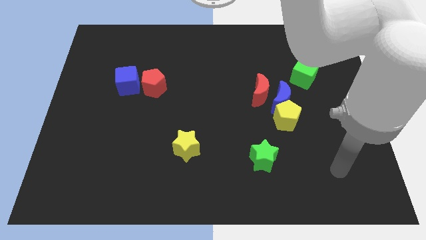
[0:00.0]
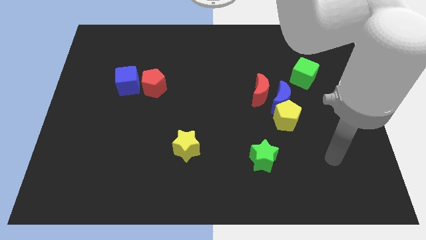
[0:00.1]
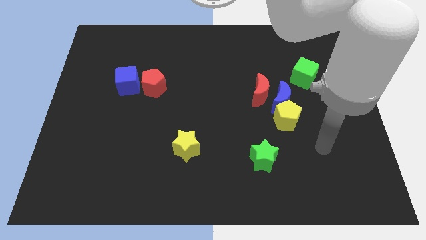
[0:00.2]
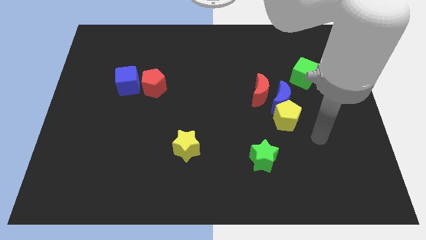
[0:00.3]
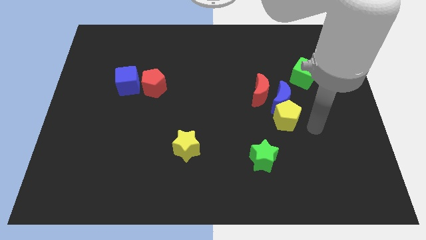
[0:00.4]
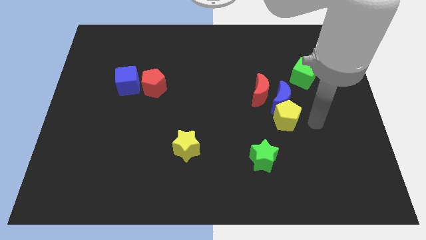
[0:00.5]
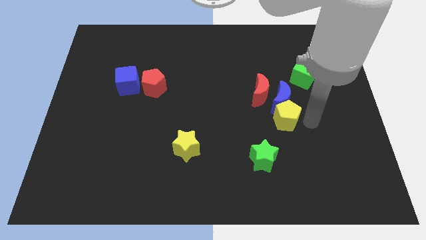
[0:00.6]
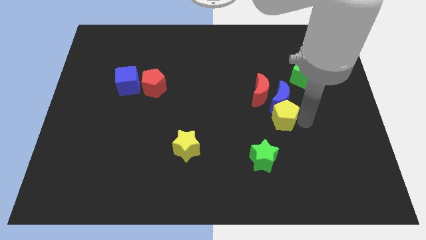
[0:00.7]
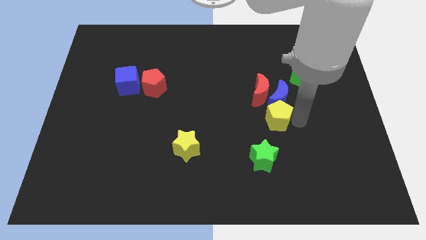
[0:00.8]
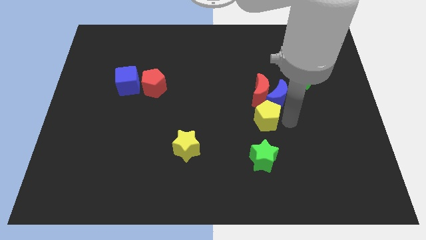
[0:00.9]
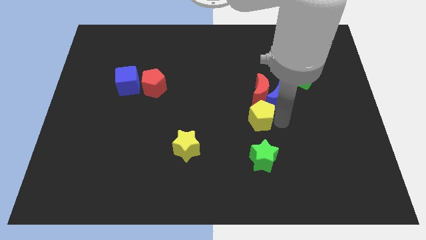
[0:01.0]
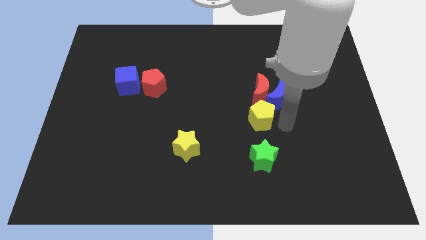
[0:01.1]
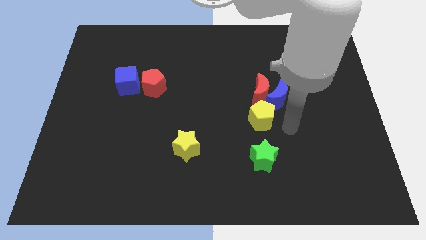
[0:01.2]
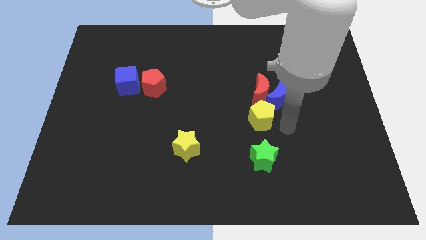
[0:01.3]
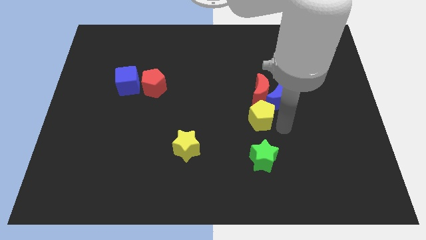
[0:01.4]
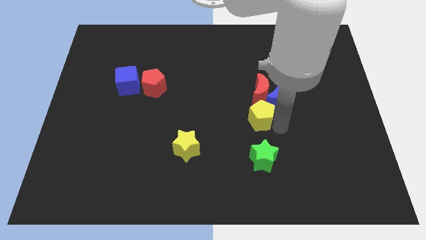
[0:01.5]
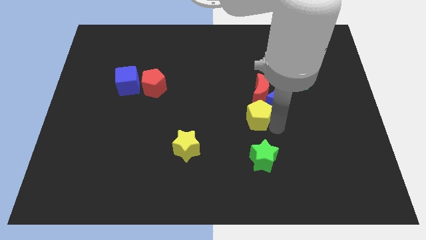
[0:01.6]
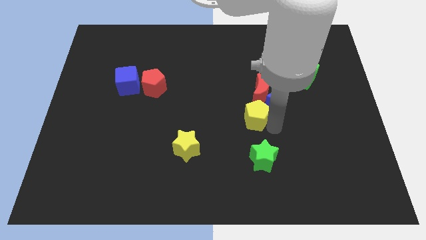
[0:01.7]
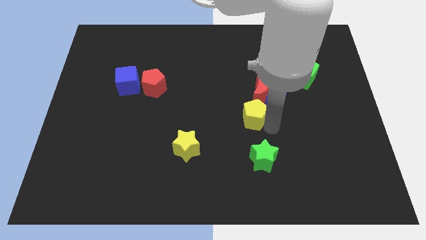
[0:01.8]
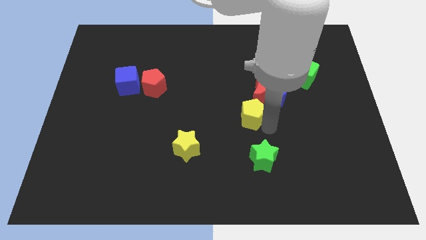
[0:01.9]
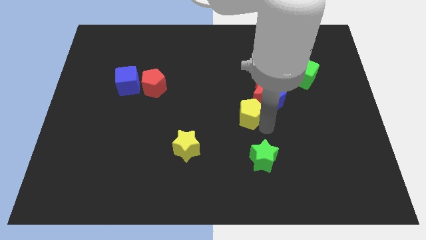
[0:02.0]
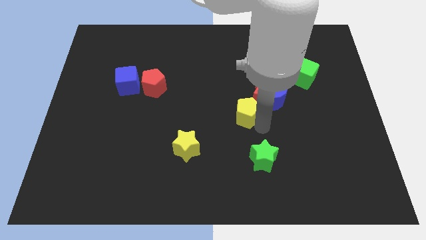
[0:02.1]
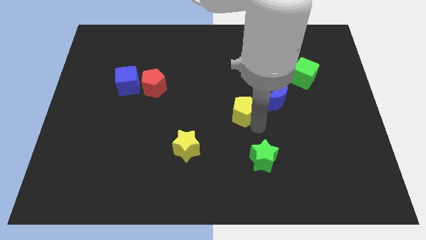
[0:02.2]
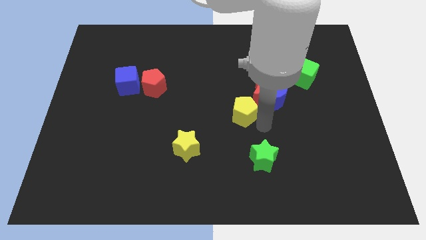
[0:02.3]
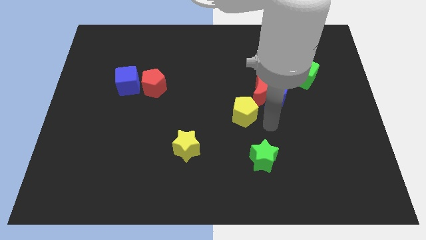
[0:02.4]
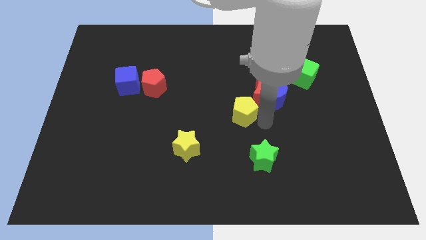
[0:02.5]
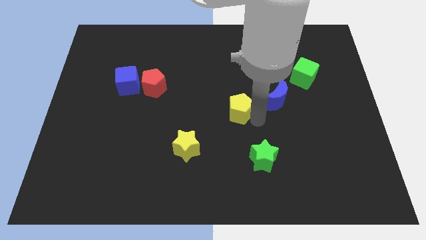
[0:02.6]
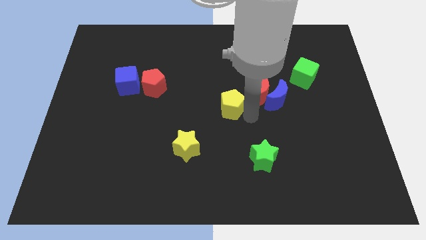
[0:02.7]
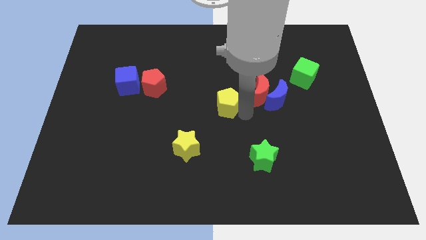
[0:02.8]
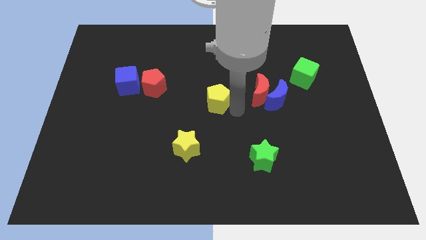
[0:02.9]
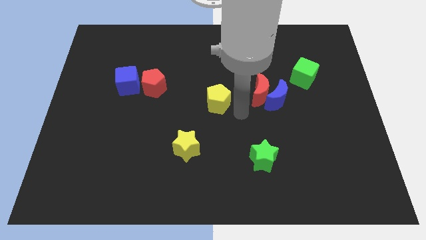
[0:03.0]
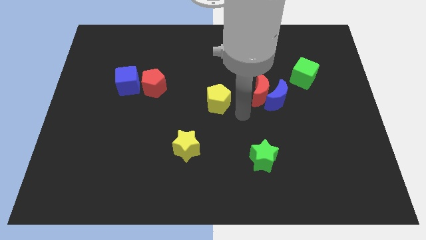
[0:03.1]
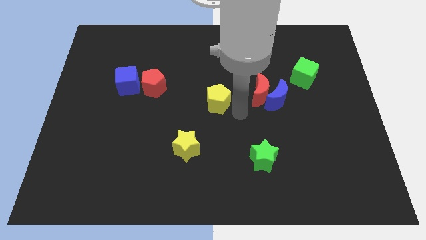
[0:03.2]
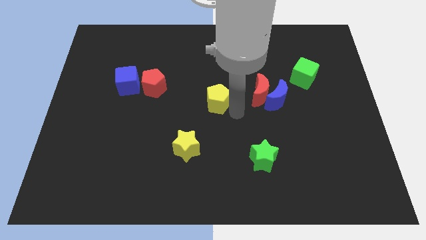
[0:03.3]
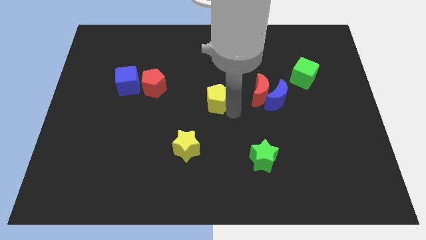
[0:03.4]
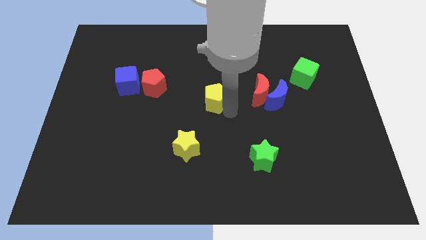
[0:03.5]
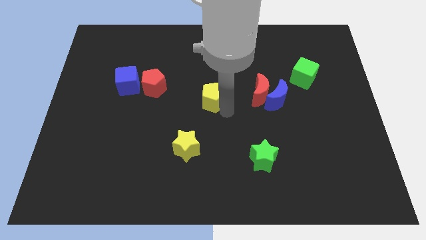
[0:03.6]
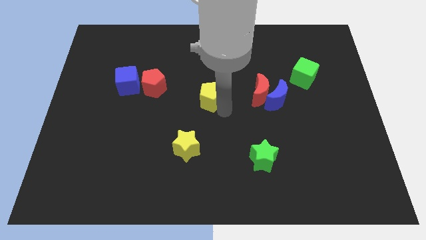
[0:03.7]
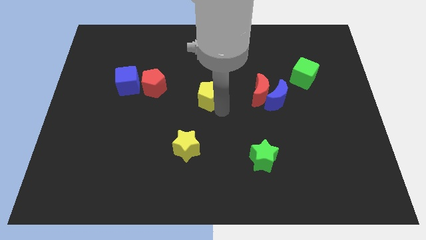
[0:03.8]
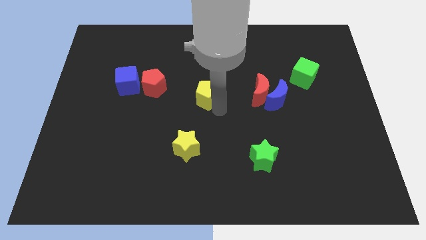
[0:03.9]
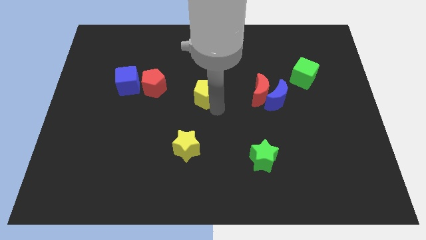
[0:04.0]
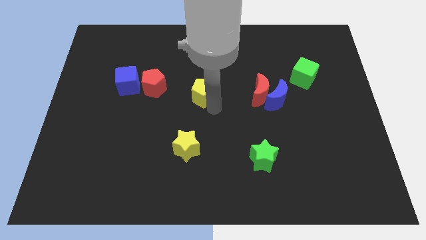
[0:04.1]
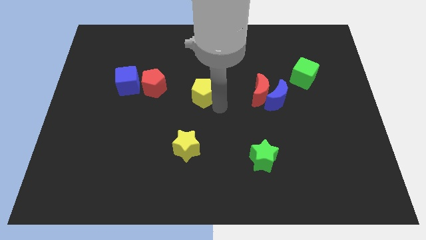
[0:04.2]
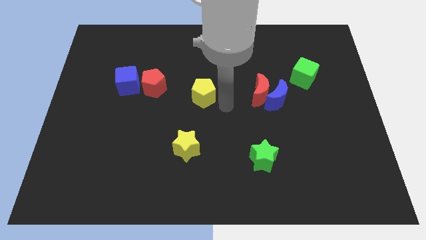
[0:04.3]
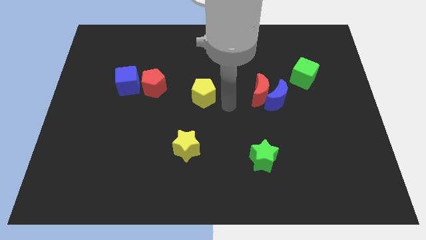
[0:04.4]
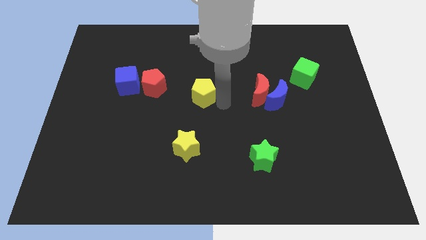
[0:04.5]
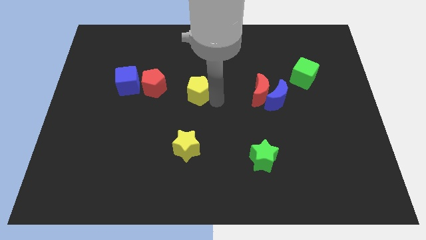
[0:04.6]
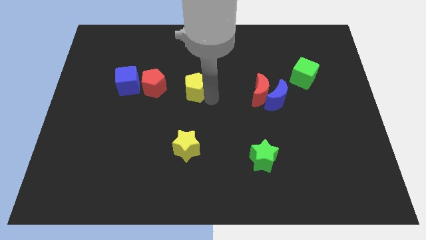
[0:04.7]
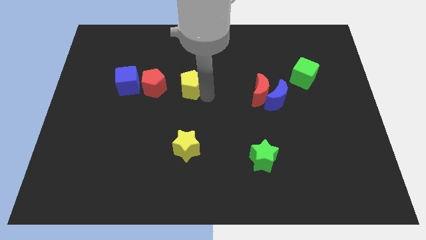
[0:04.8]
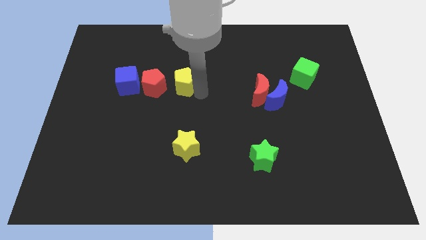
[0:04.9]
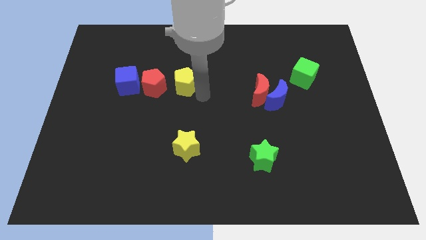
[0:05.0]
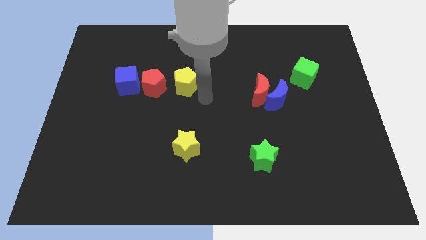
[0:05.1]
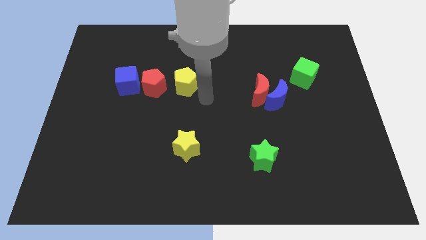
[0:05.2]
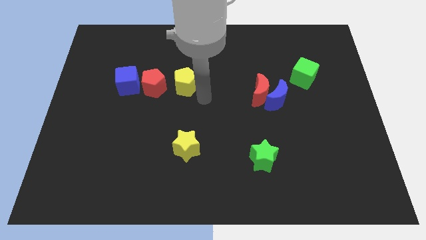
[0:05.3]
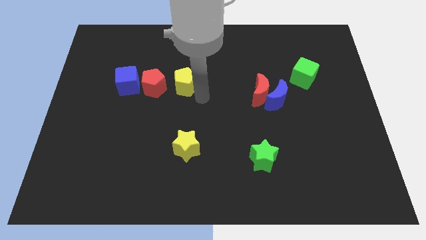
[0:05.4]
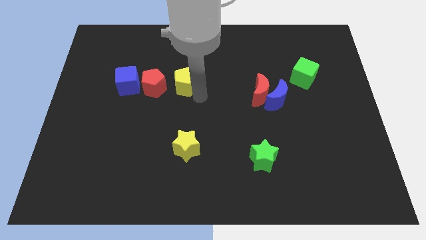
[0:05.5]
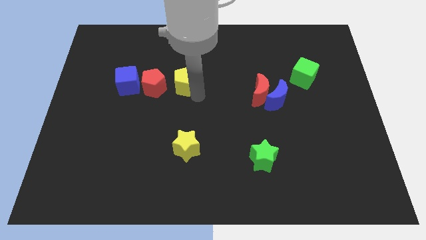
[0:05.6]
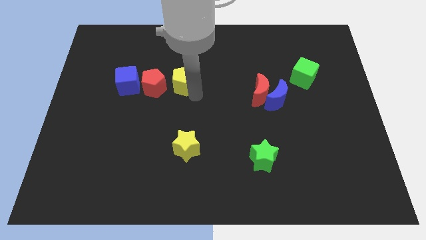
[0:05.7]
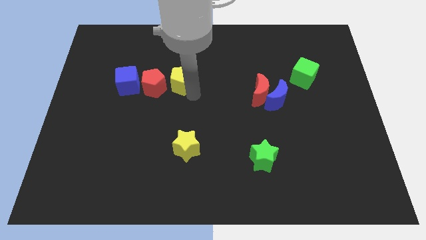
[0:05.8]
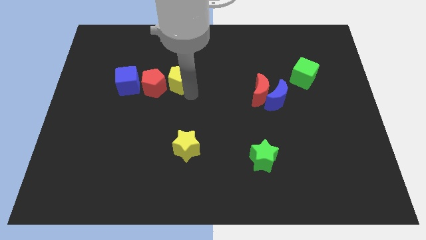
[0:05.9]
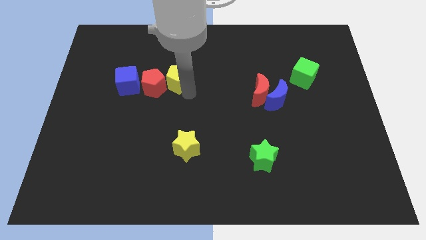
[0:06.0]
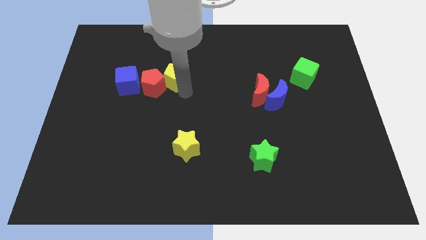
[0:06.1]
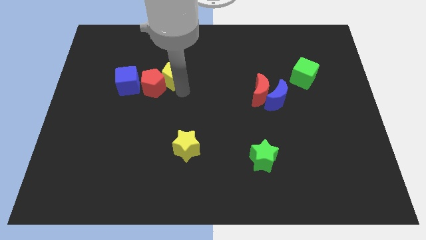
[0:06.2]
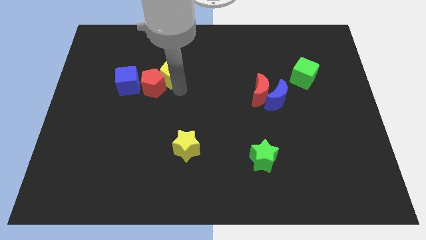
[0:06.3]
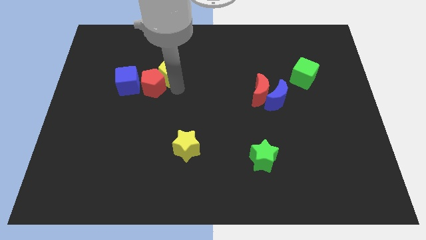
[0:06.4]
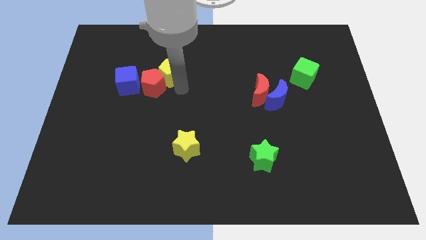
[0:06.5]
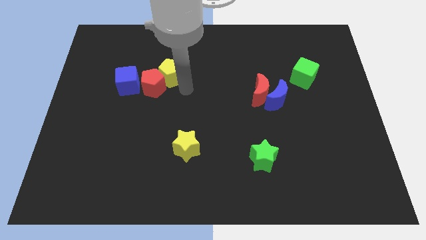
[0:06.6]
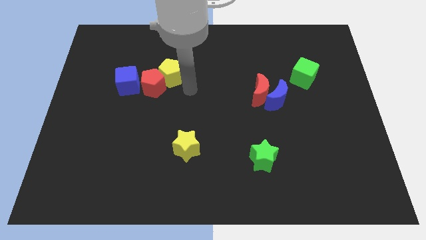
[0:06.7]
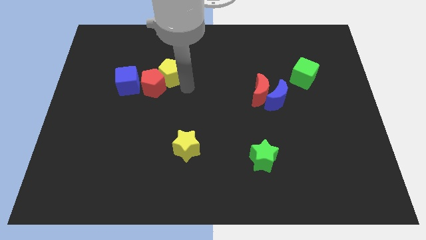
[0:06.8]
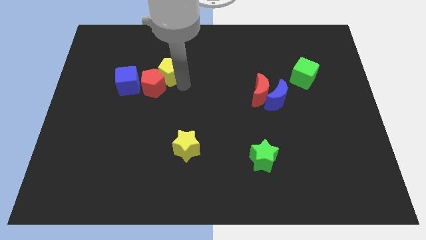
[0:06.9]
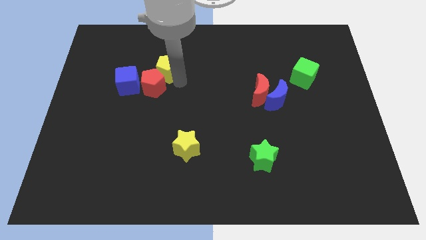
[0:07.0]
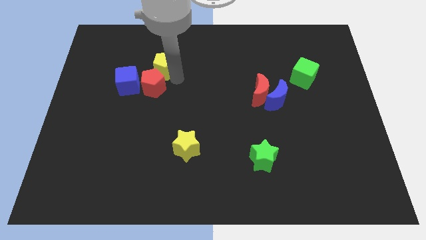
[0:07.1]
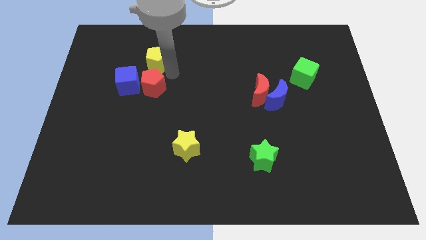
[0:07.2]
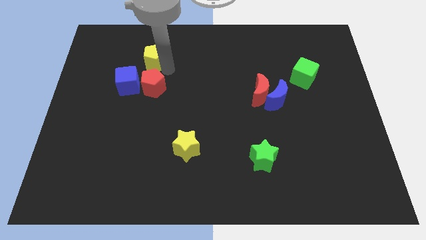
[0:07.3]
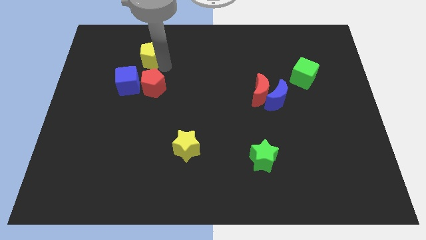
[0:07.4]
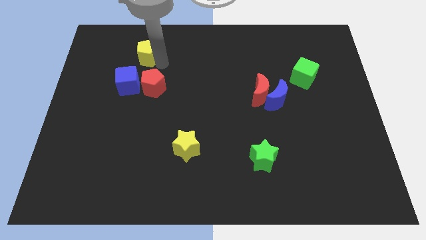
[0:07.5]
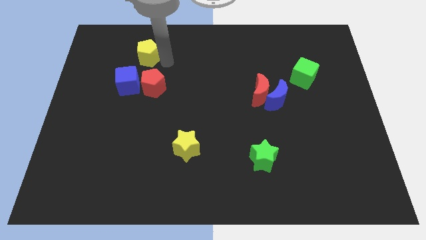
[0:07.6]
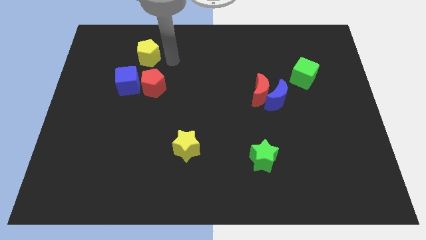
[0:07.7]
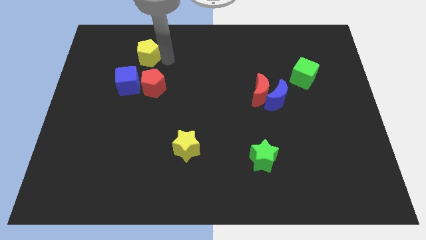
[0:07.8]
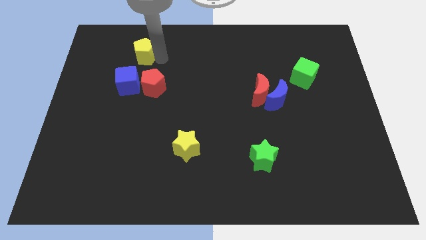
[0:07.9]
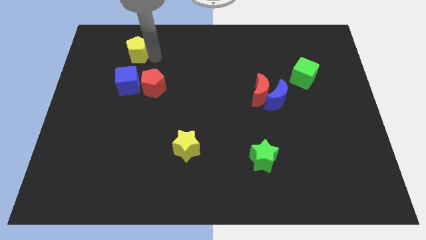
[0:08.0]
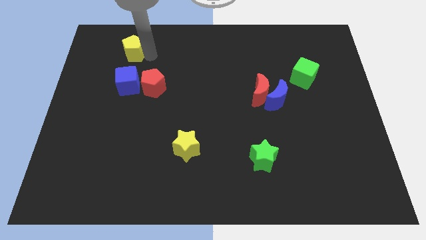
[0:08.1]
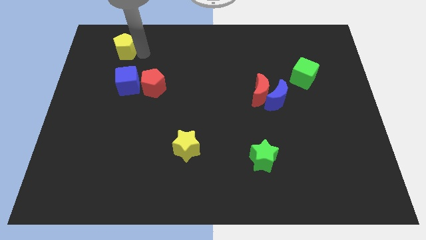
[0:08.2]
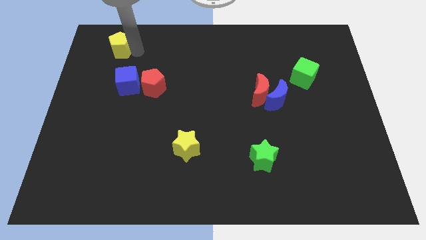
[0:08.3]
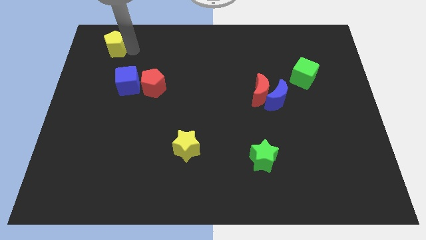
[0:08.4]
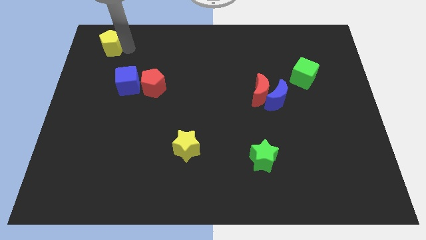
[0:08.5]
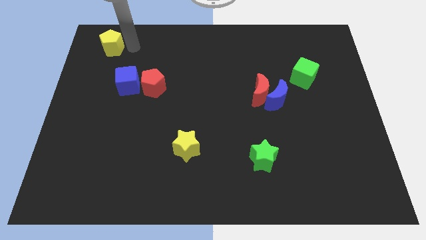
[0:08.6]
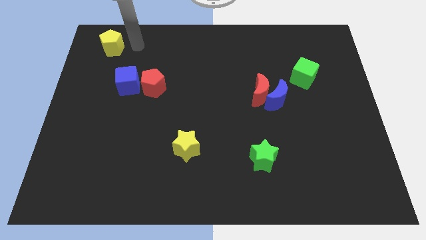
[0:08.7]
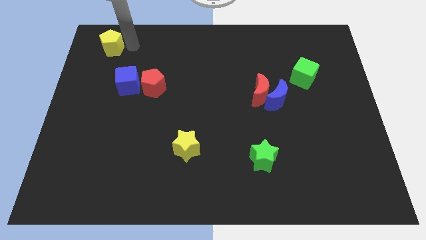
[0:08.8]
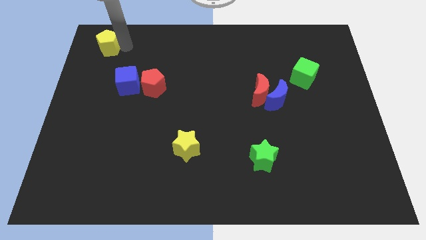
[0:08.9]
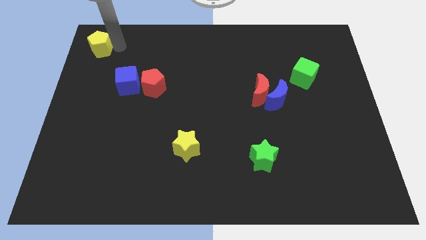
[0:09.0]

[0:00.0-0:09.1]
slide the yellow pentagon to the top left corner
